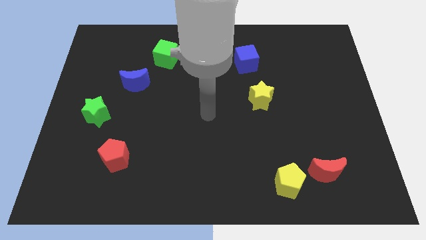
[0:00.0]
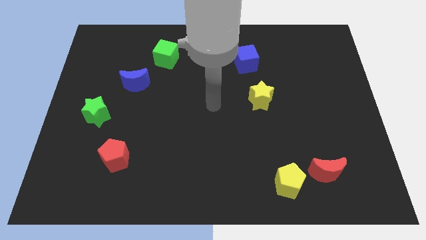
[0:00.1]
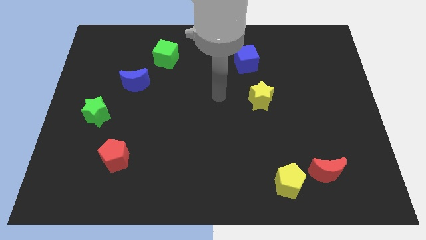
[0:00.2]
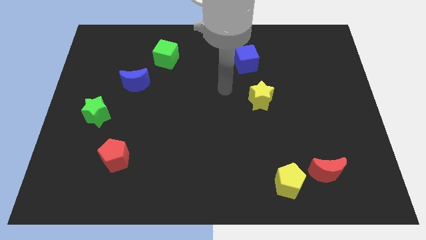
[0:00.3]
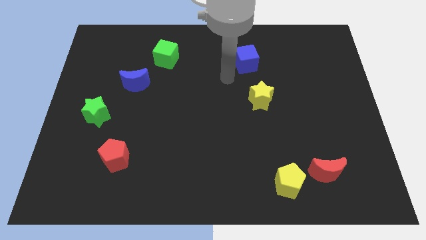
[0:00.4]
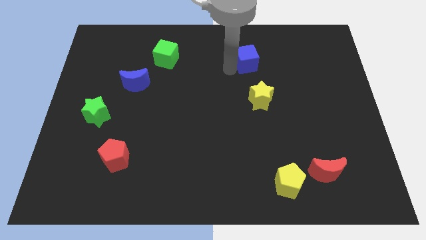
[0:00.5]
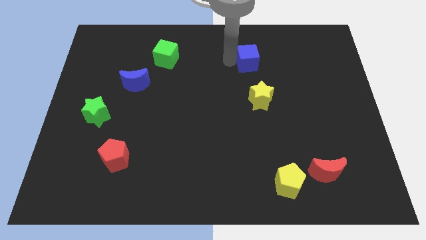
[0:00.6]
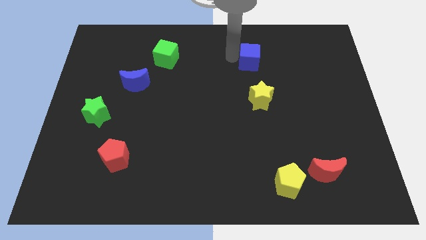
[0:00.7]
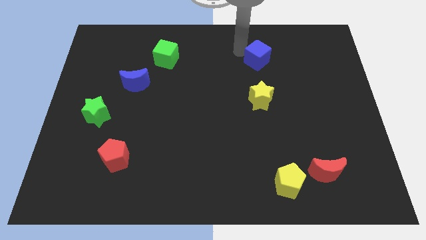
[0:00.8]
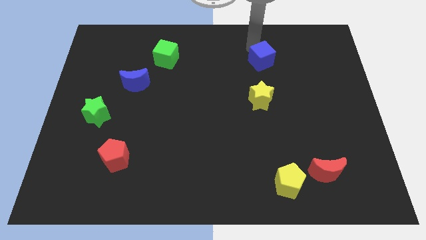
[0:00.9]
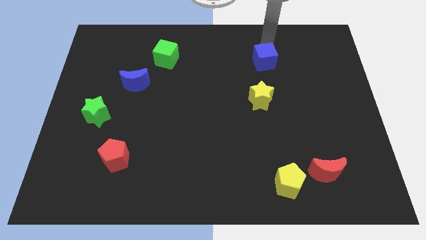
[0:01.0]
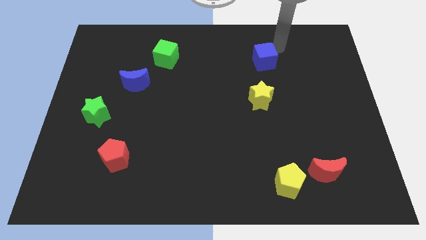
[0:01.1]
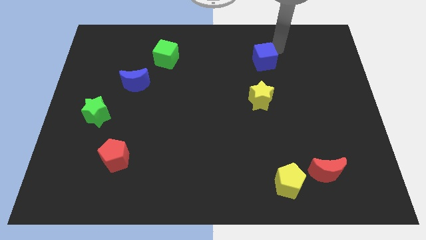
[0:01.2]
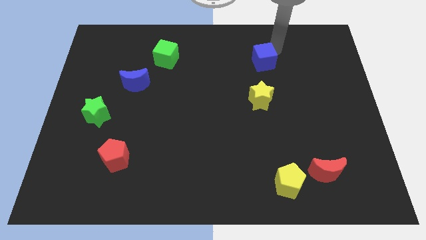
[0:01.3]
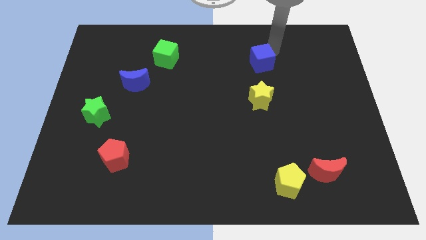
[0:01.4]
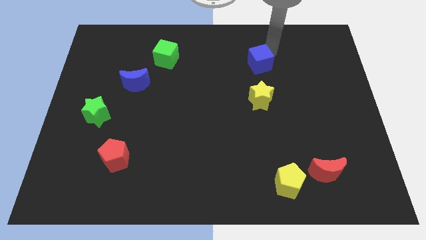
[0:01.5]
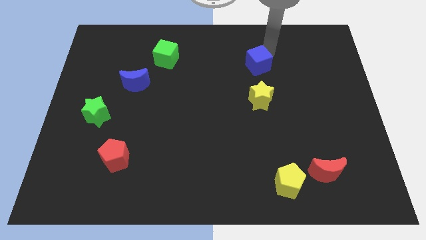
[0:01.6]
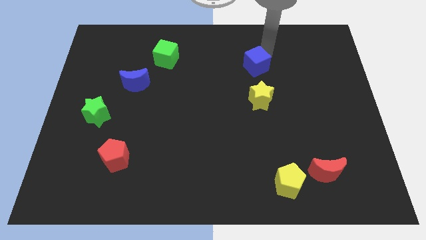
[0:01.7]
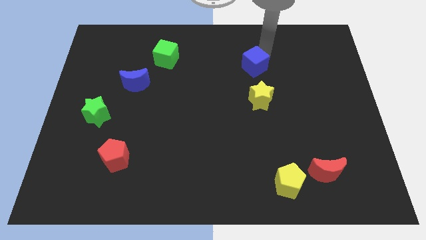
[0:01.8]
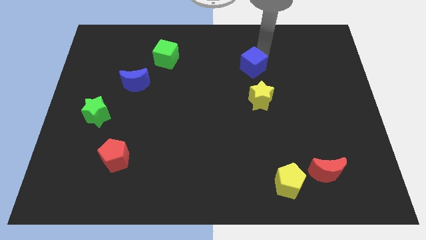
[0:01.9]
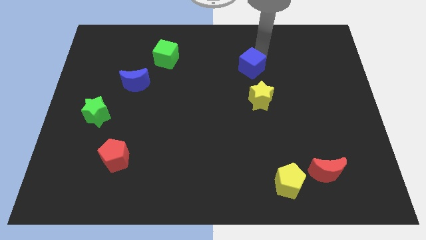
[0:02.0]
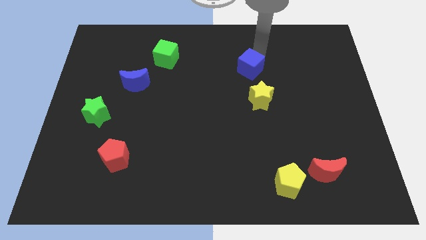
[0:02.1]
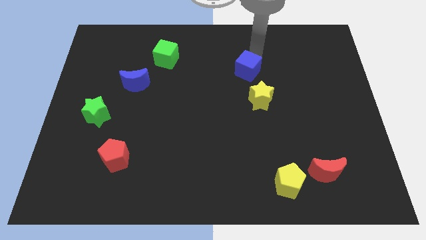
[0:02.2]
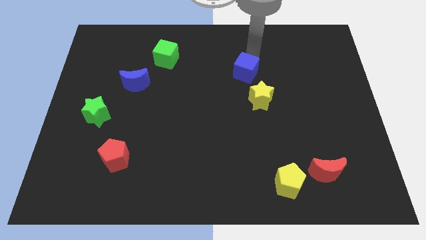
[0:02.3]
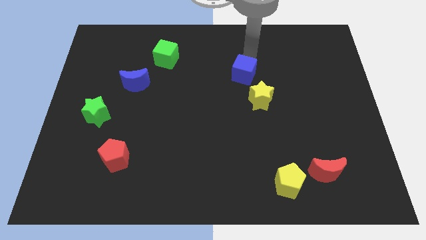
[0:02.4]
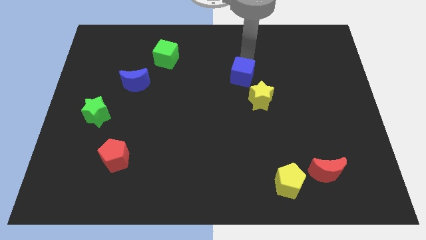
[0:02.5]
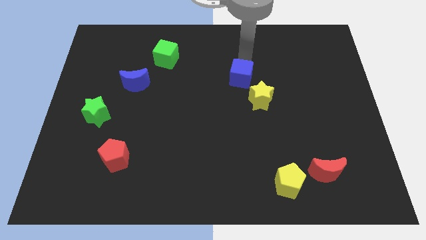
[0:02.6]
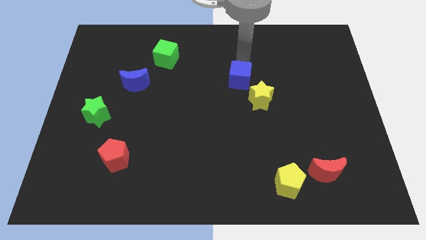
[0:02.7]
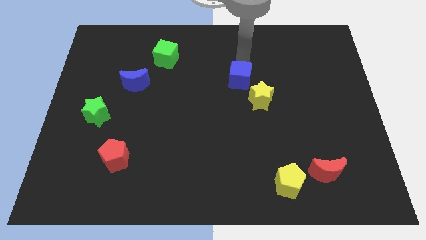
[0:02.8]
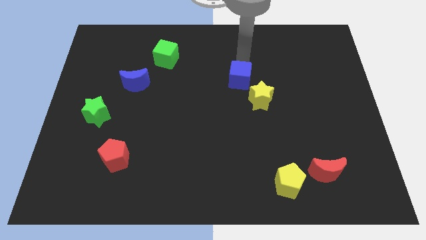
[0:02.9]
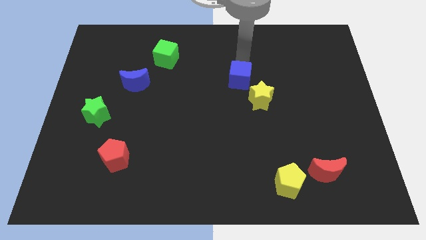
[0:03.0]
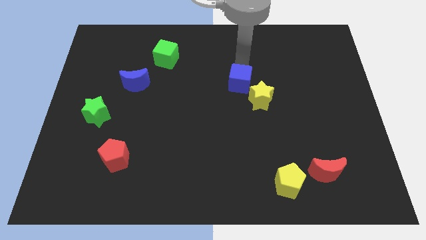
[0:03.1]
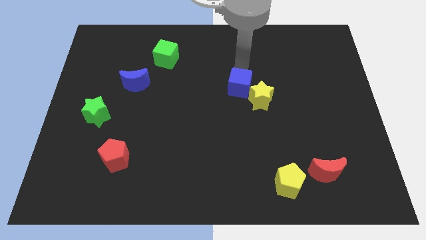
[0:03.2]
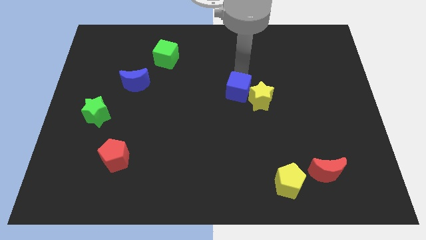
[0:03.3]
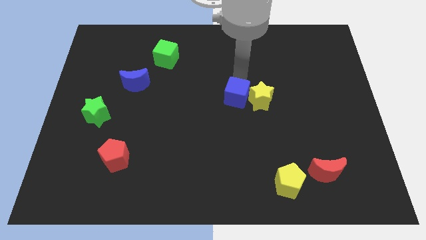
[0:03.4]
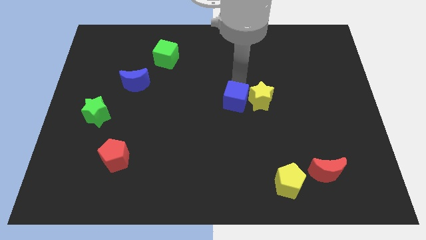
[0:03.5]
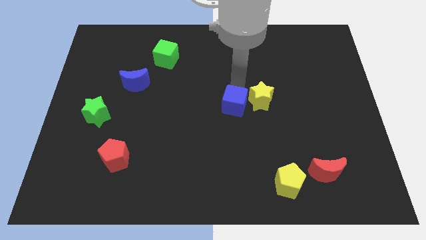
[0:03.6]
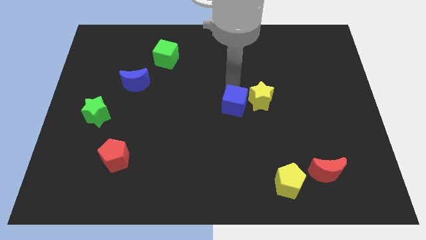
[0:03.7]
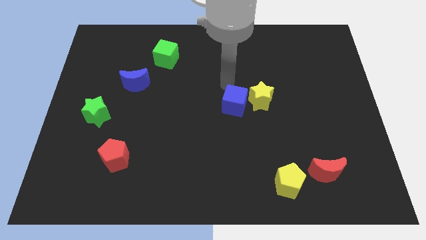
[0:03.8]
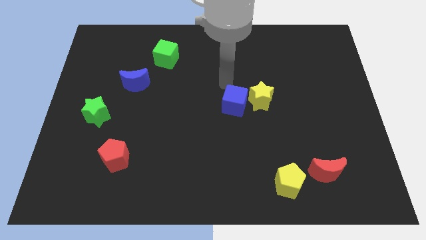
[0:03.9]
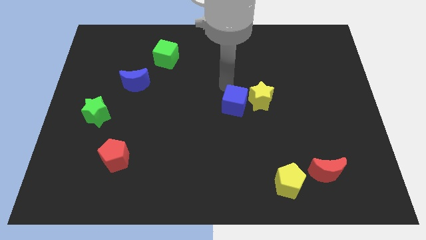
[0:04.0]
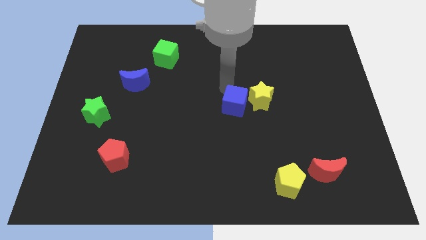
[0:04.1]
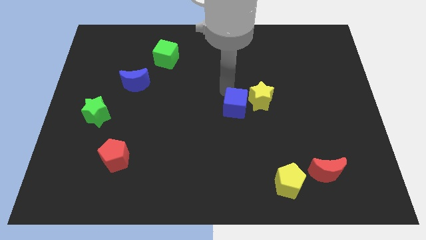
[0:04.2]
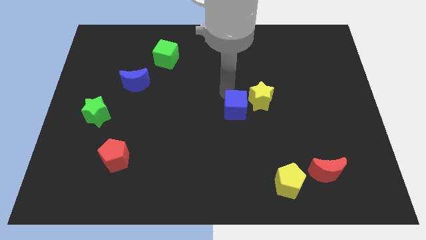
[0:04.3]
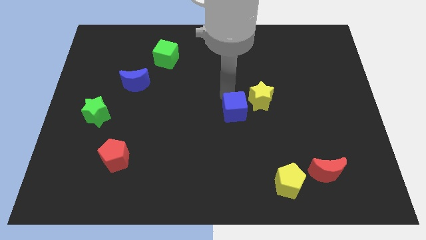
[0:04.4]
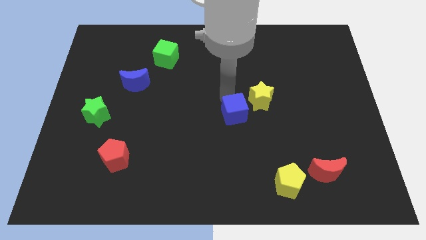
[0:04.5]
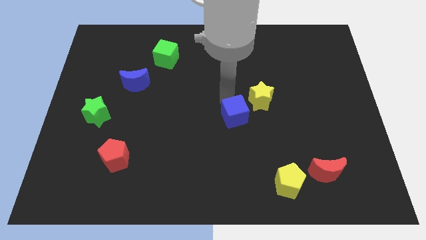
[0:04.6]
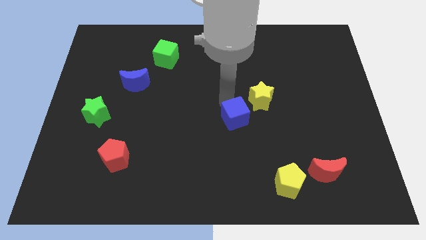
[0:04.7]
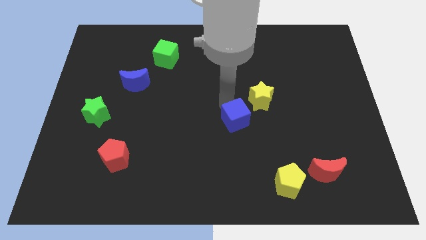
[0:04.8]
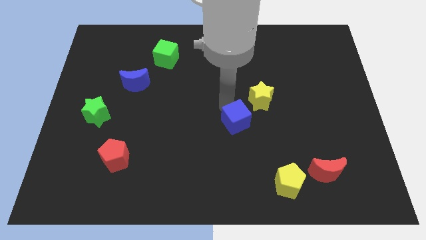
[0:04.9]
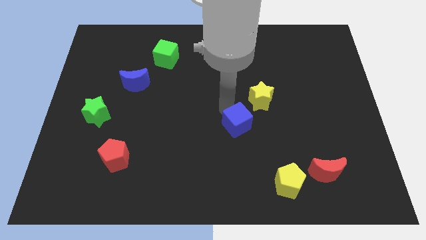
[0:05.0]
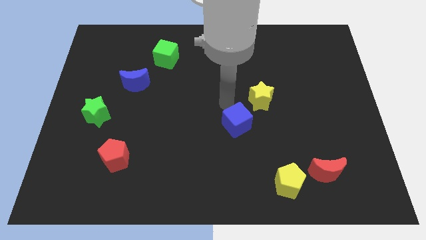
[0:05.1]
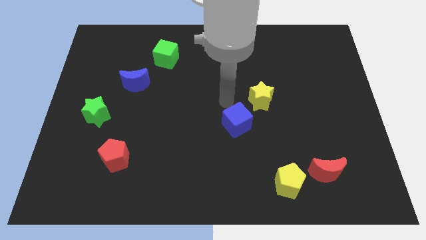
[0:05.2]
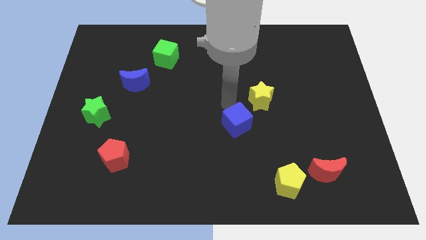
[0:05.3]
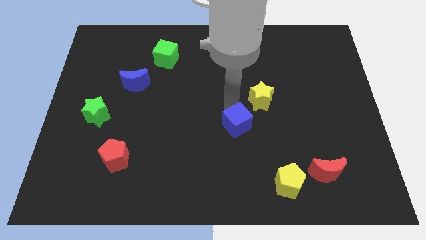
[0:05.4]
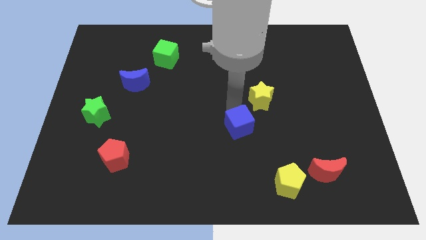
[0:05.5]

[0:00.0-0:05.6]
move the blue cube downwards

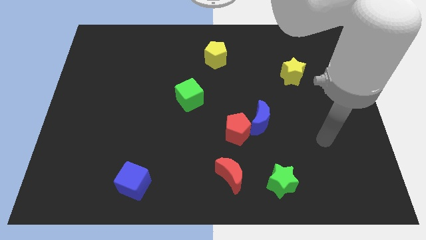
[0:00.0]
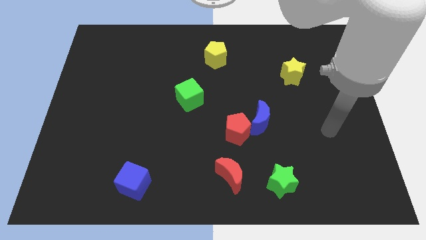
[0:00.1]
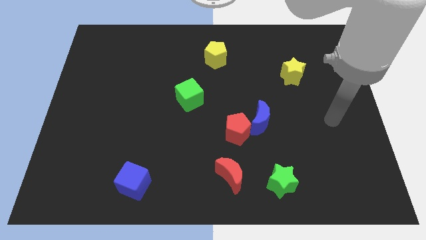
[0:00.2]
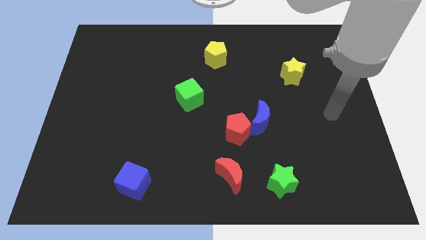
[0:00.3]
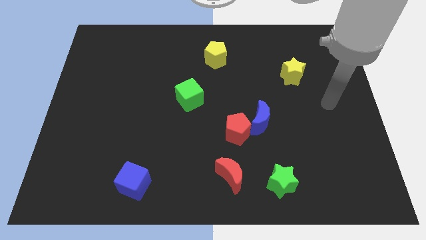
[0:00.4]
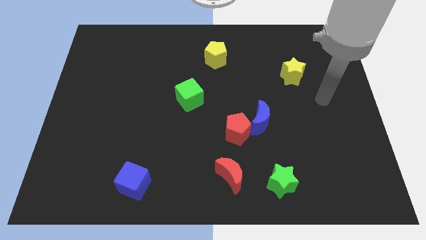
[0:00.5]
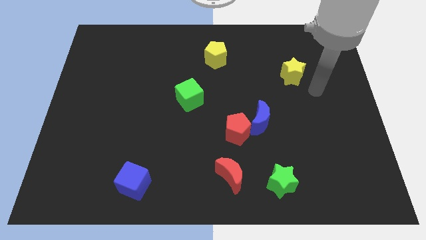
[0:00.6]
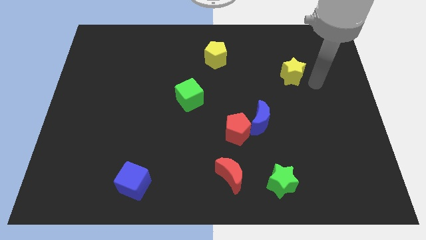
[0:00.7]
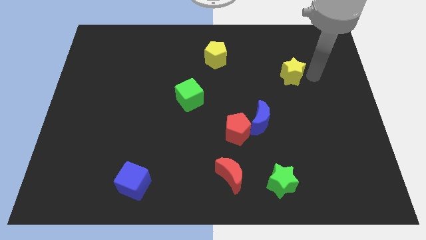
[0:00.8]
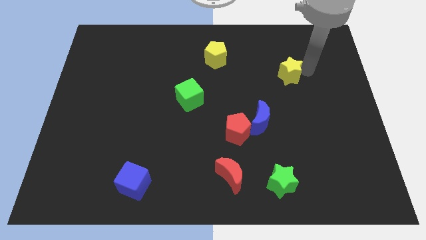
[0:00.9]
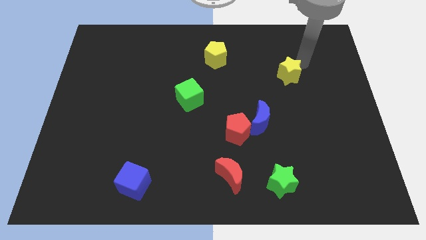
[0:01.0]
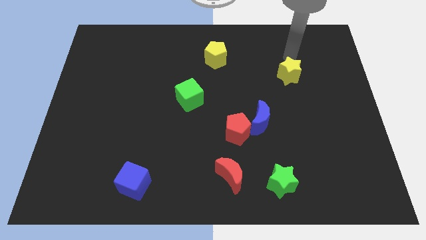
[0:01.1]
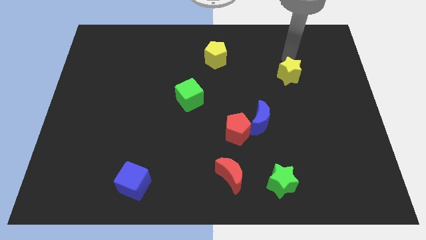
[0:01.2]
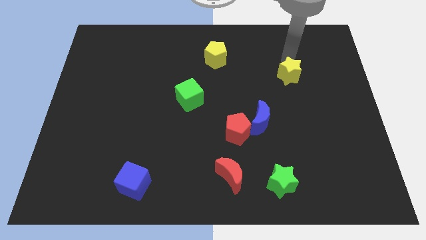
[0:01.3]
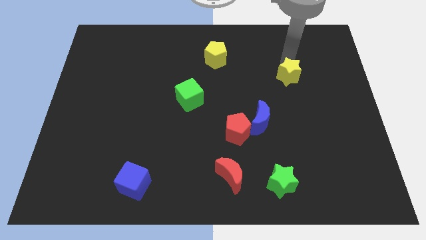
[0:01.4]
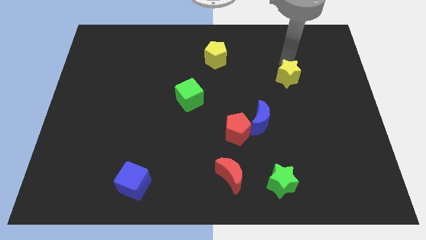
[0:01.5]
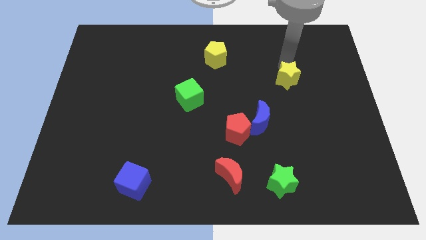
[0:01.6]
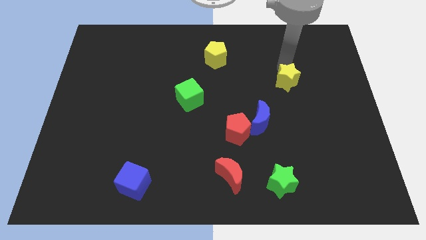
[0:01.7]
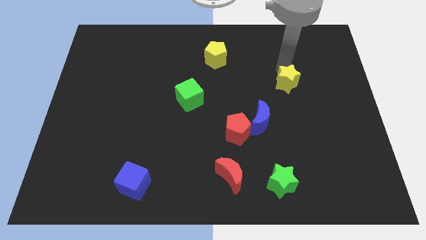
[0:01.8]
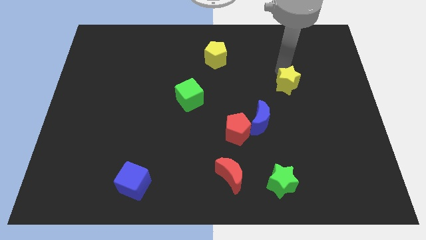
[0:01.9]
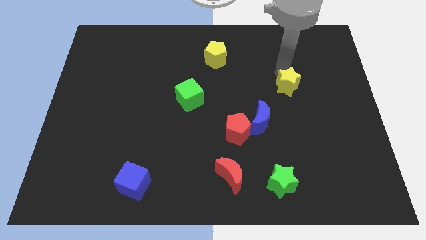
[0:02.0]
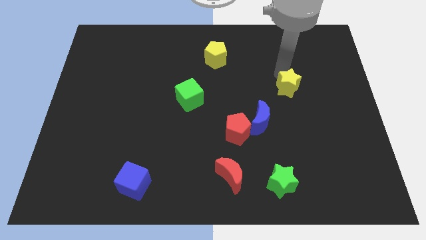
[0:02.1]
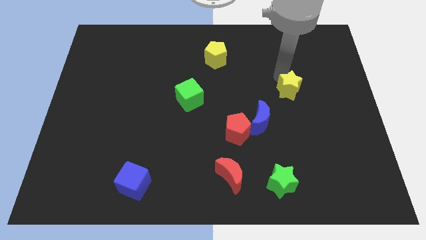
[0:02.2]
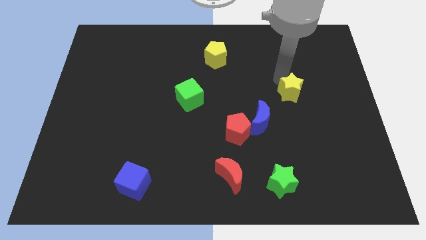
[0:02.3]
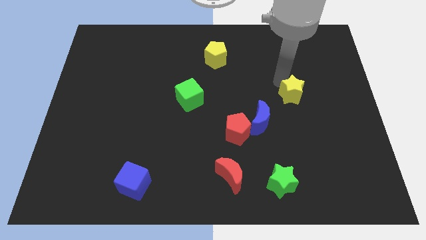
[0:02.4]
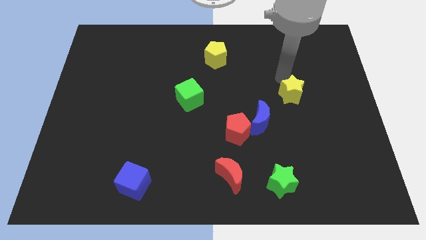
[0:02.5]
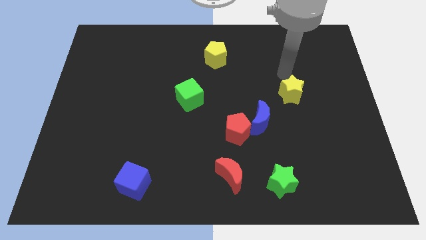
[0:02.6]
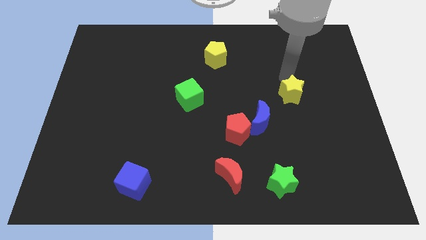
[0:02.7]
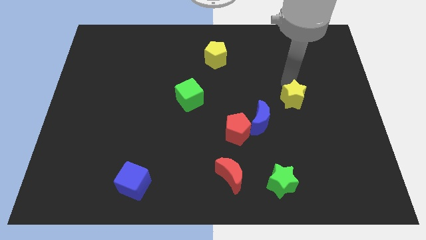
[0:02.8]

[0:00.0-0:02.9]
push the yellow star downwards a little bit
